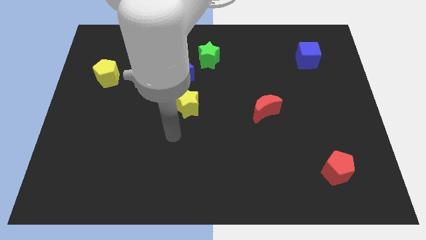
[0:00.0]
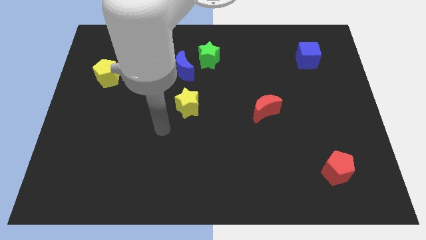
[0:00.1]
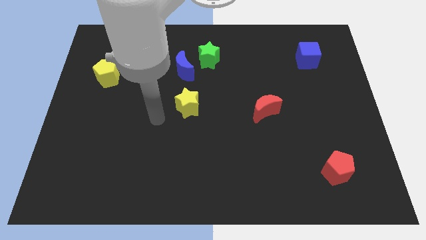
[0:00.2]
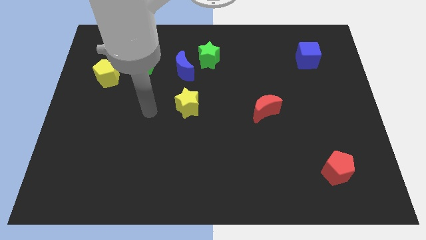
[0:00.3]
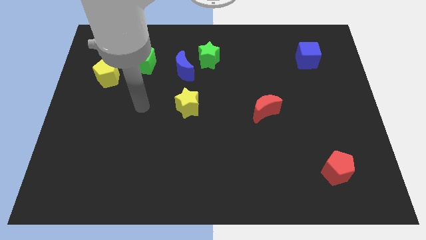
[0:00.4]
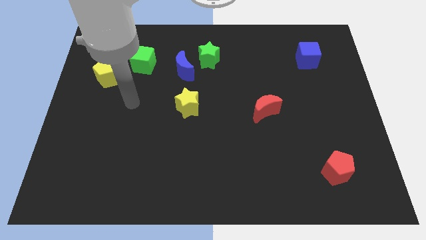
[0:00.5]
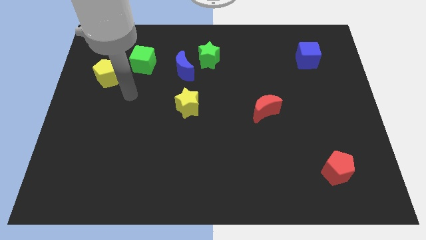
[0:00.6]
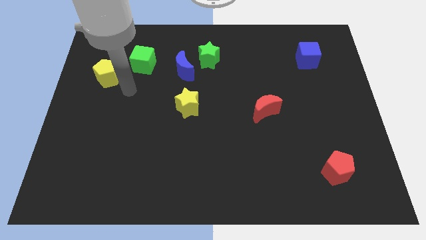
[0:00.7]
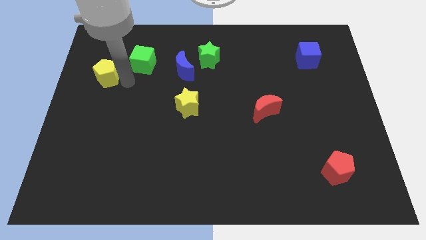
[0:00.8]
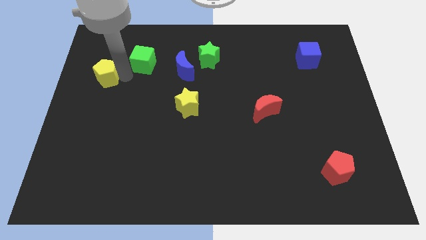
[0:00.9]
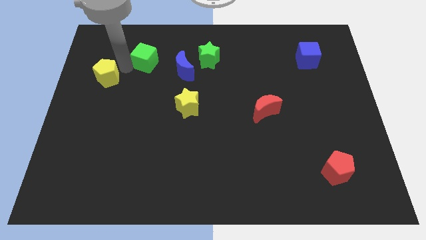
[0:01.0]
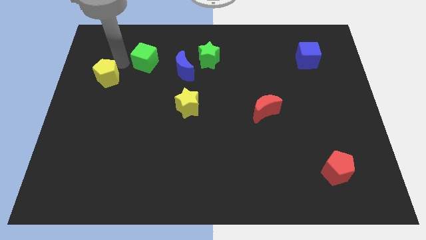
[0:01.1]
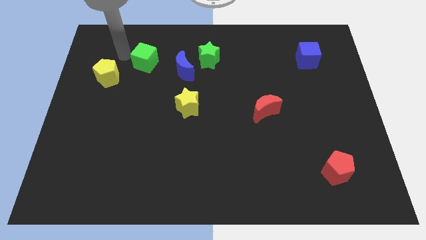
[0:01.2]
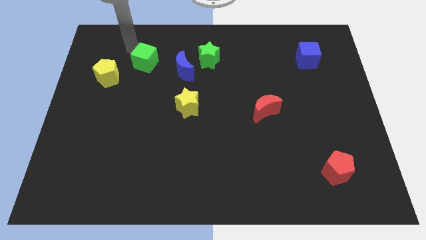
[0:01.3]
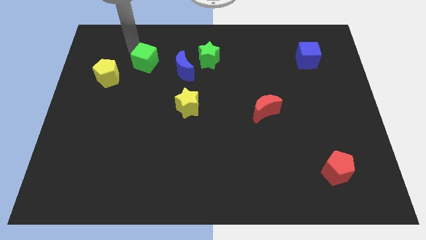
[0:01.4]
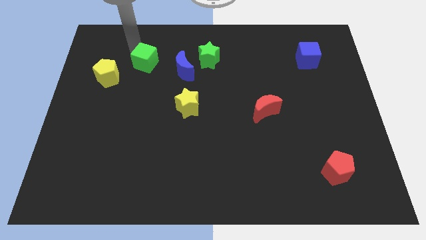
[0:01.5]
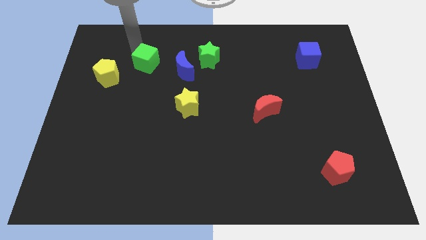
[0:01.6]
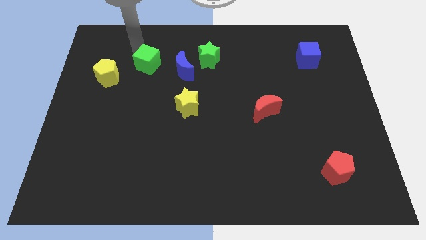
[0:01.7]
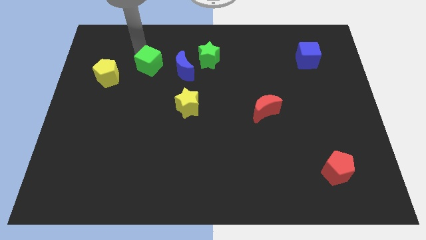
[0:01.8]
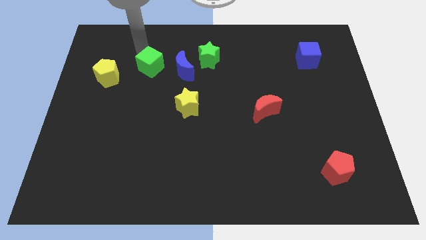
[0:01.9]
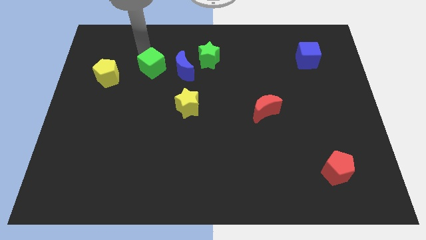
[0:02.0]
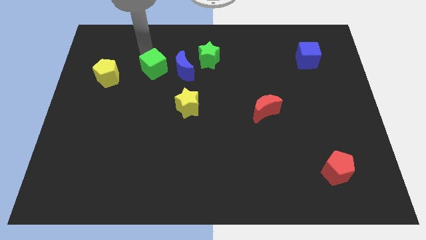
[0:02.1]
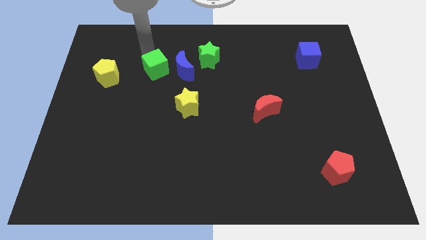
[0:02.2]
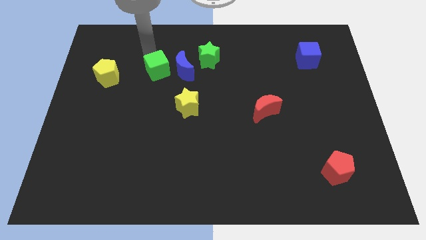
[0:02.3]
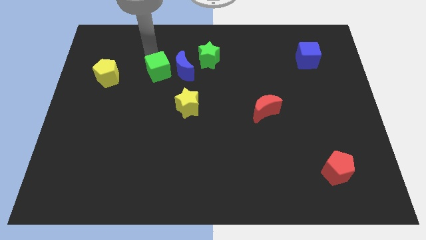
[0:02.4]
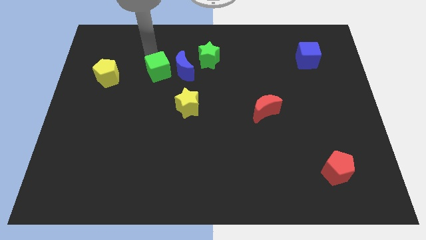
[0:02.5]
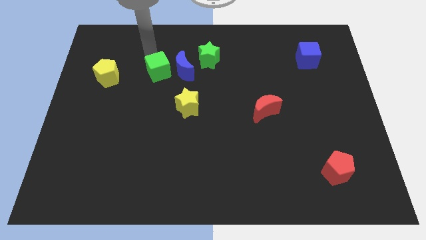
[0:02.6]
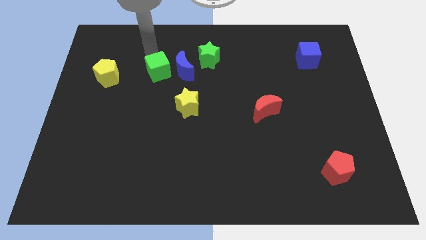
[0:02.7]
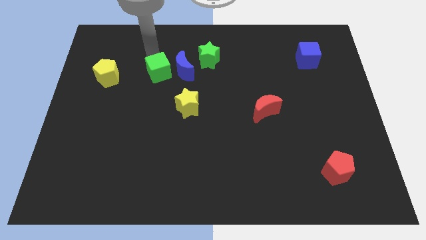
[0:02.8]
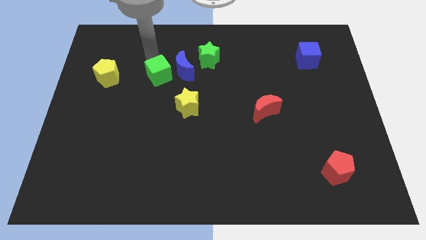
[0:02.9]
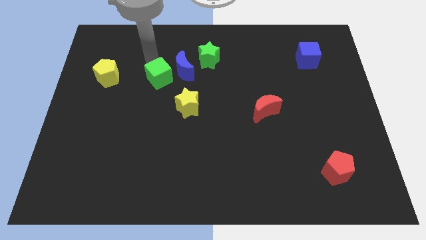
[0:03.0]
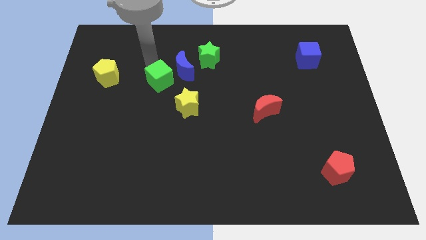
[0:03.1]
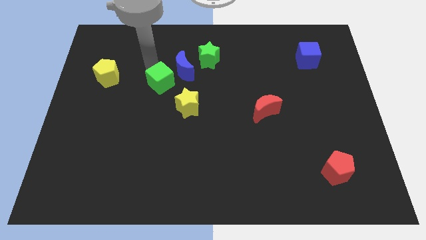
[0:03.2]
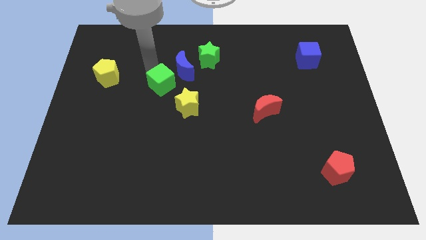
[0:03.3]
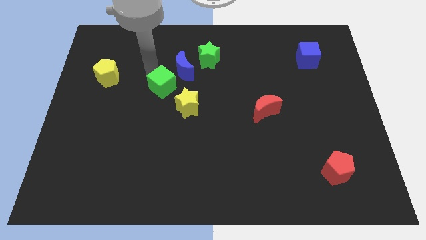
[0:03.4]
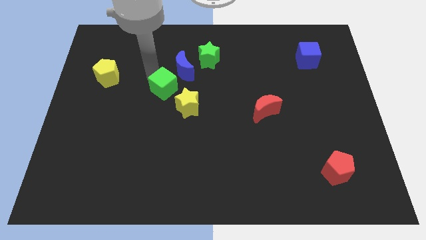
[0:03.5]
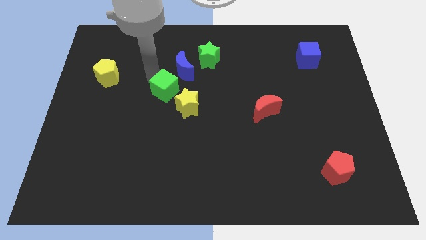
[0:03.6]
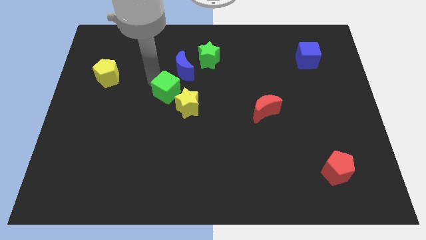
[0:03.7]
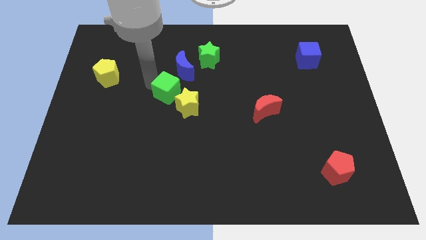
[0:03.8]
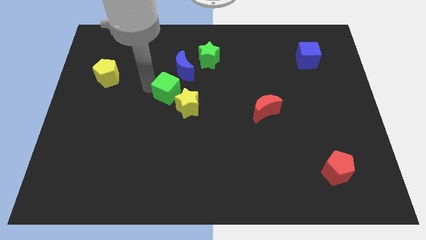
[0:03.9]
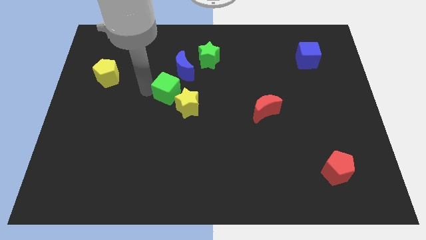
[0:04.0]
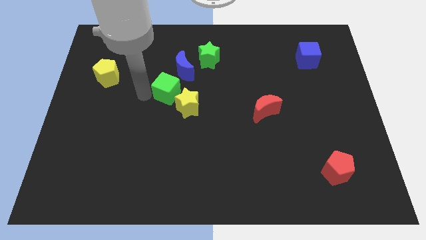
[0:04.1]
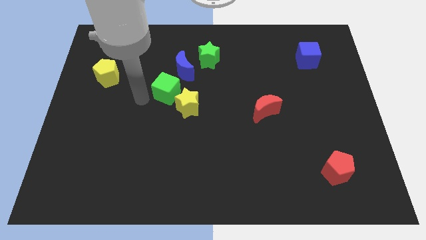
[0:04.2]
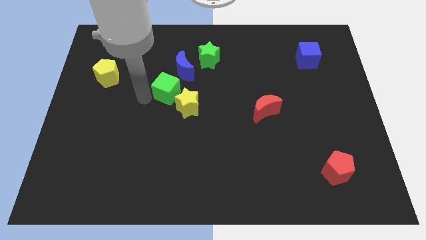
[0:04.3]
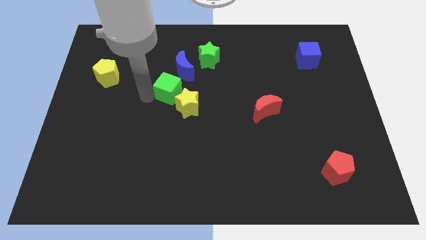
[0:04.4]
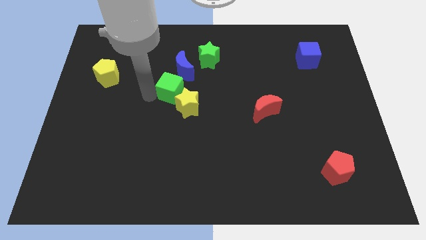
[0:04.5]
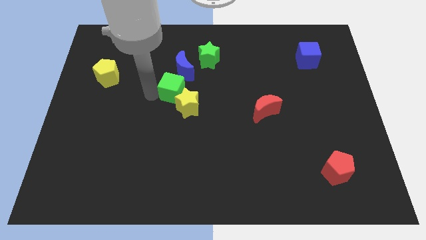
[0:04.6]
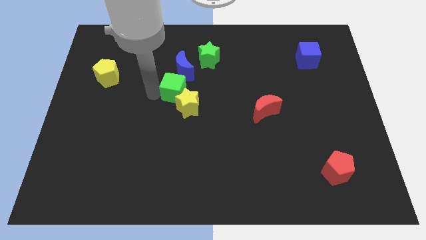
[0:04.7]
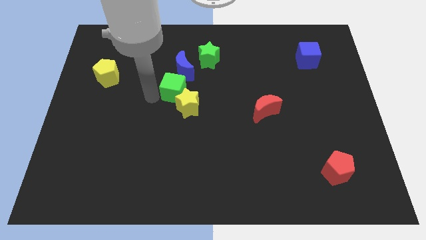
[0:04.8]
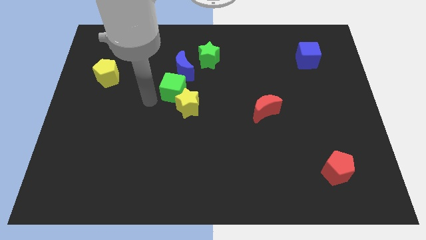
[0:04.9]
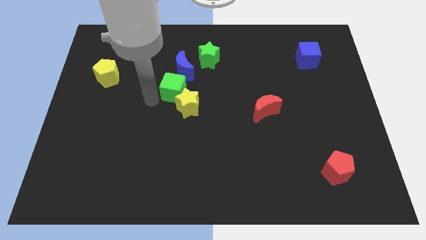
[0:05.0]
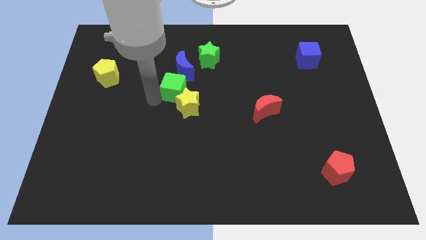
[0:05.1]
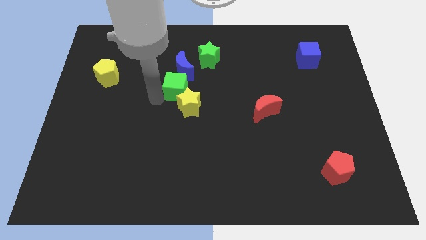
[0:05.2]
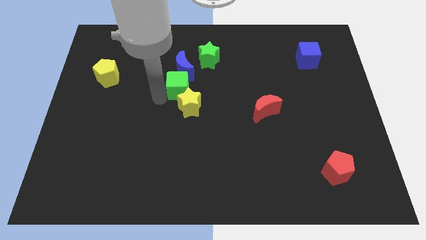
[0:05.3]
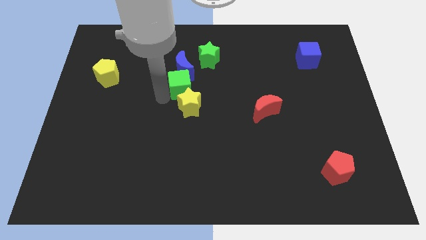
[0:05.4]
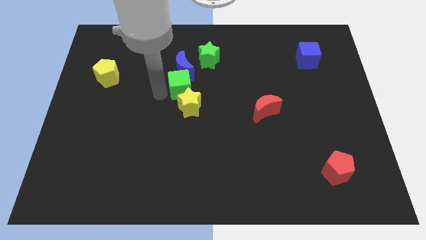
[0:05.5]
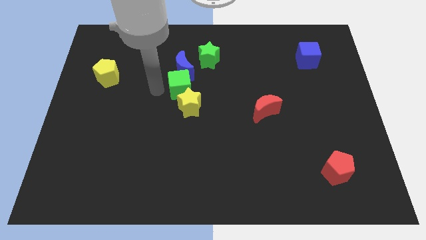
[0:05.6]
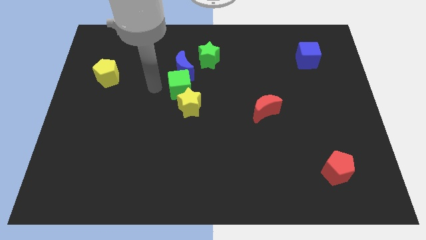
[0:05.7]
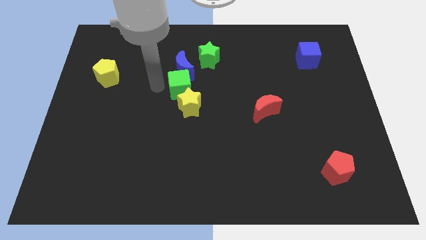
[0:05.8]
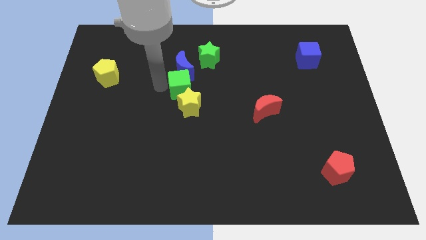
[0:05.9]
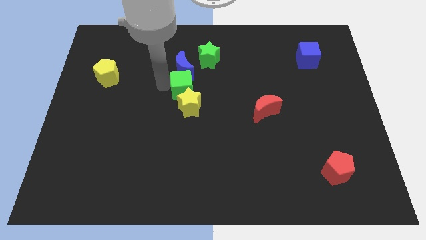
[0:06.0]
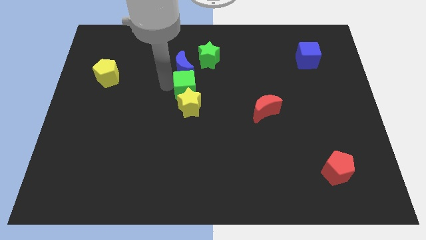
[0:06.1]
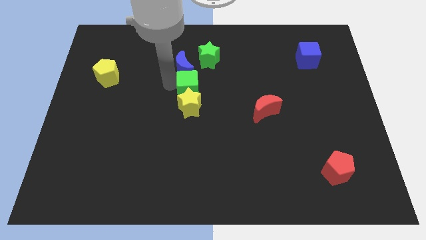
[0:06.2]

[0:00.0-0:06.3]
put the green cube below the green star

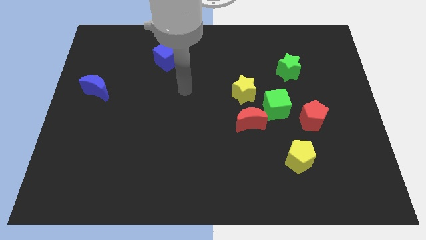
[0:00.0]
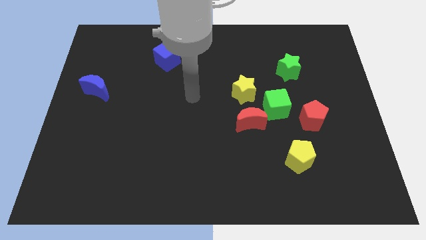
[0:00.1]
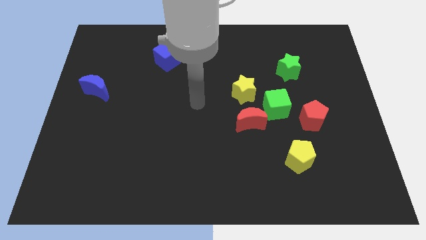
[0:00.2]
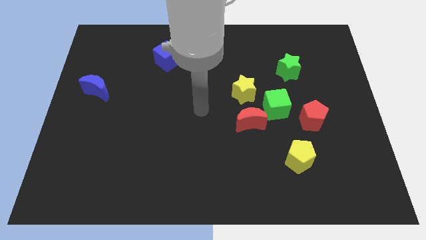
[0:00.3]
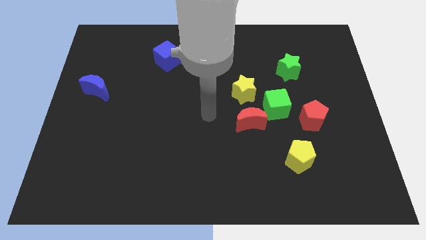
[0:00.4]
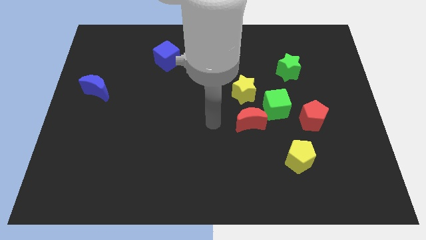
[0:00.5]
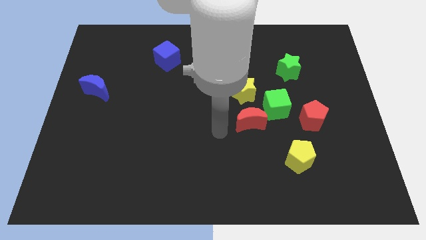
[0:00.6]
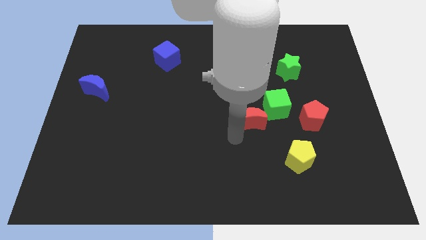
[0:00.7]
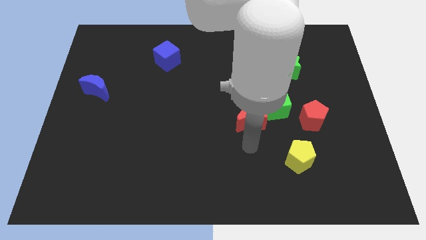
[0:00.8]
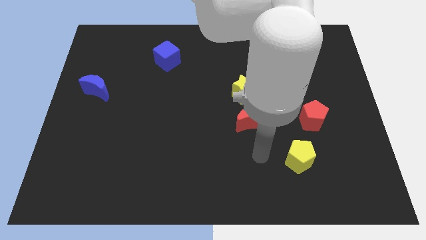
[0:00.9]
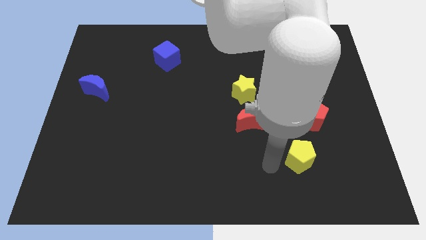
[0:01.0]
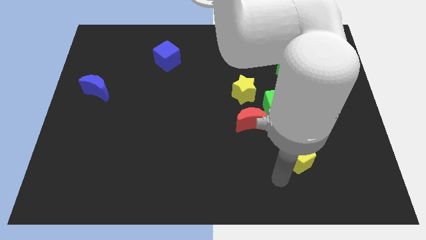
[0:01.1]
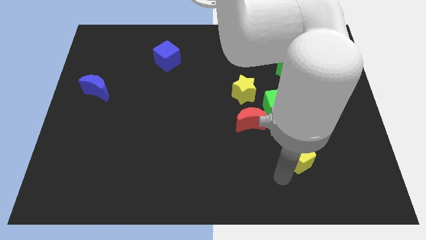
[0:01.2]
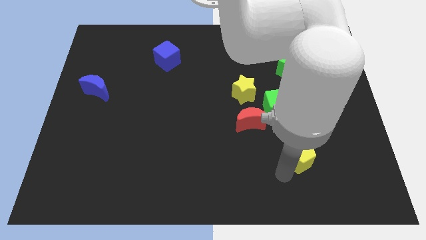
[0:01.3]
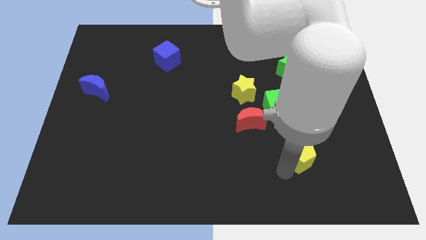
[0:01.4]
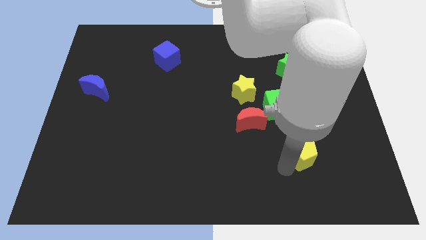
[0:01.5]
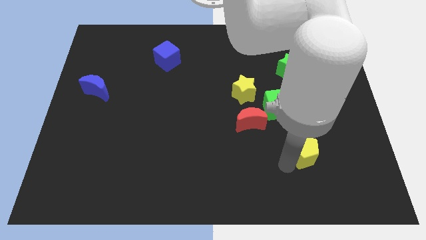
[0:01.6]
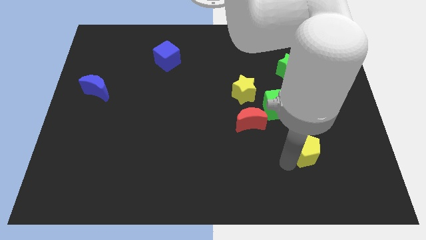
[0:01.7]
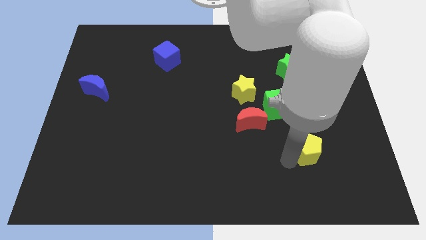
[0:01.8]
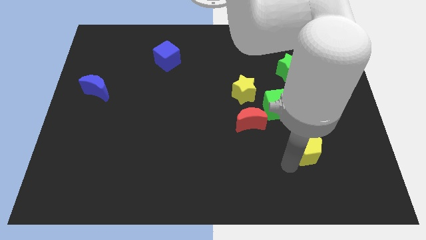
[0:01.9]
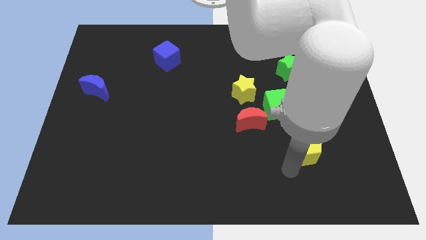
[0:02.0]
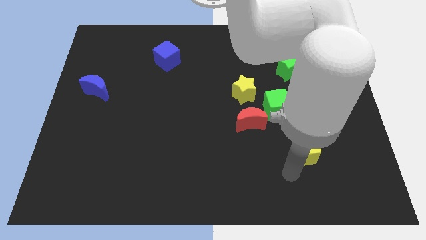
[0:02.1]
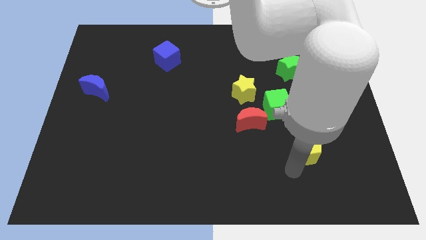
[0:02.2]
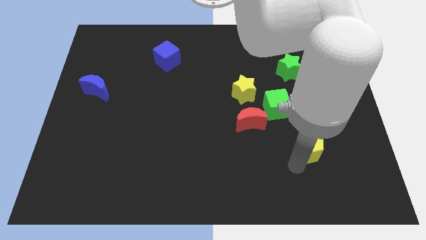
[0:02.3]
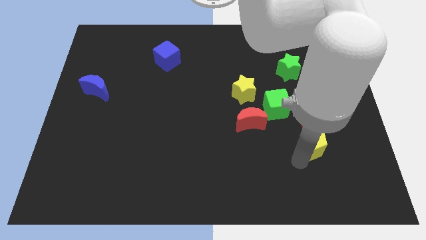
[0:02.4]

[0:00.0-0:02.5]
put the yellow pentagon to the bottom right side of the green cube
